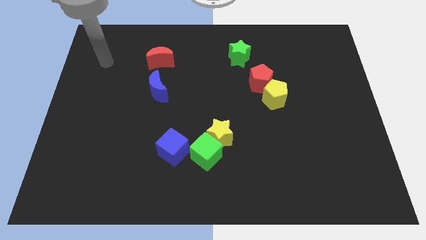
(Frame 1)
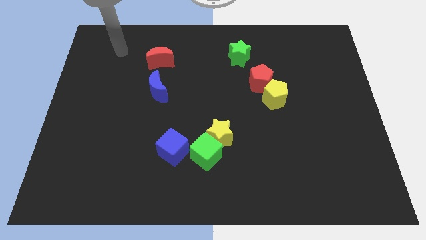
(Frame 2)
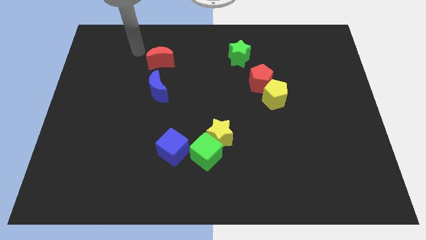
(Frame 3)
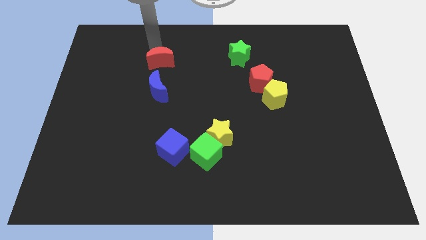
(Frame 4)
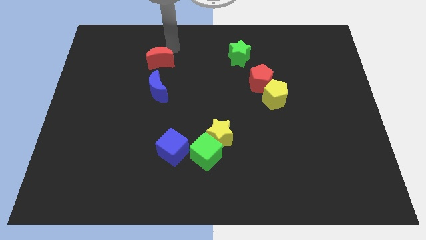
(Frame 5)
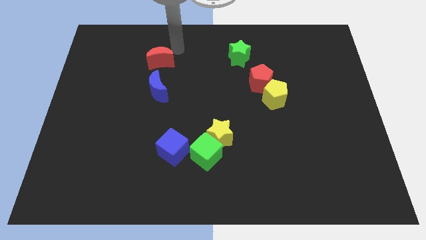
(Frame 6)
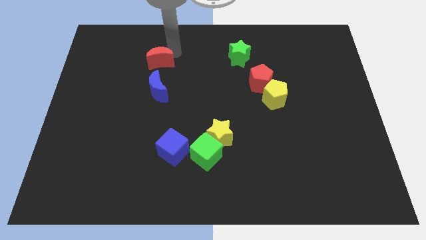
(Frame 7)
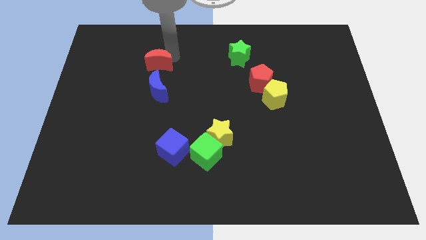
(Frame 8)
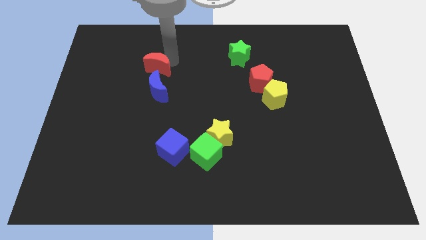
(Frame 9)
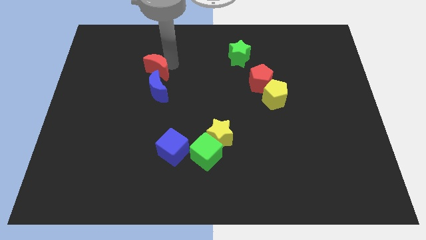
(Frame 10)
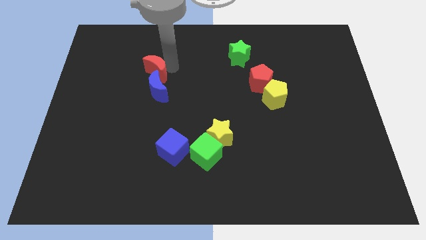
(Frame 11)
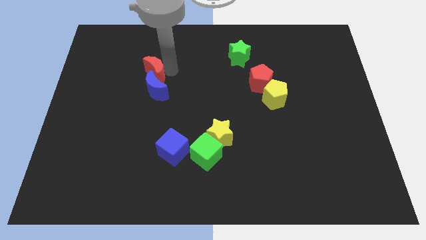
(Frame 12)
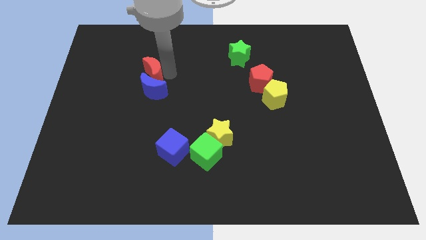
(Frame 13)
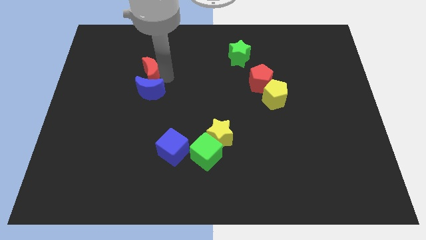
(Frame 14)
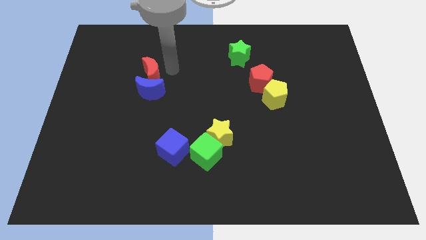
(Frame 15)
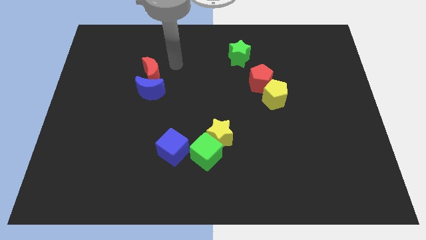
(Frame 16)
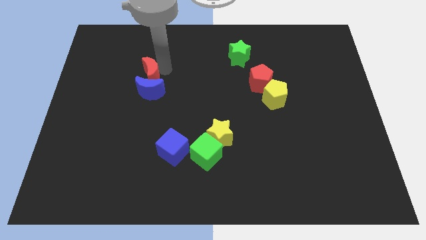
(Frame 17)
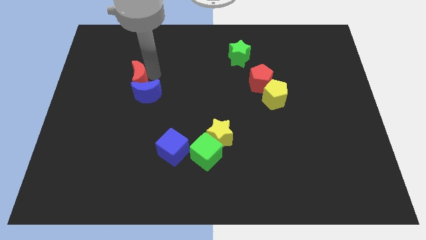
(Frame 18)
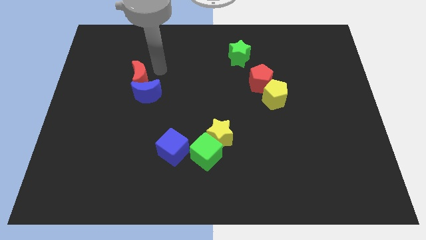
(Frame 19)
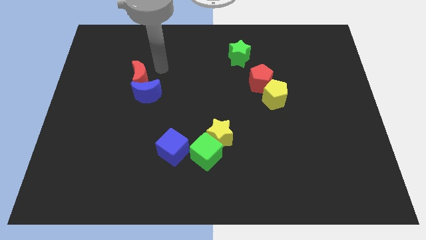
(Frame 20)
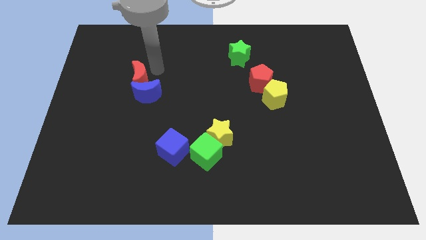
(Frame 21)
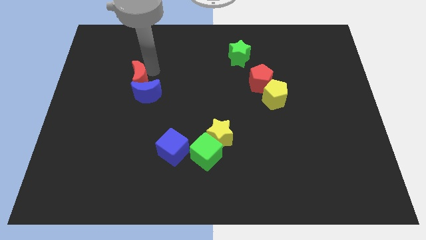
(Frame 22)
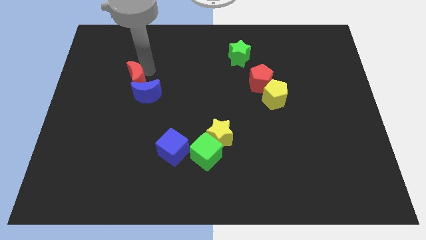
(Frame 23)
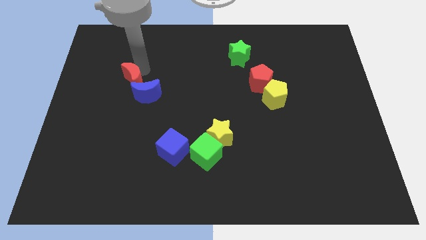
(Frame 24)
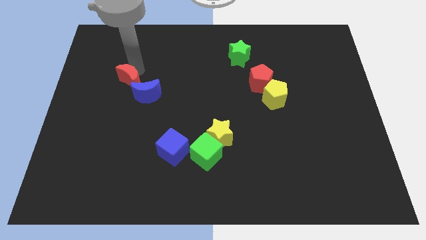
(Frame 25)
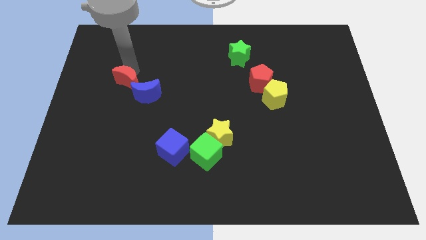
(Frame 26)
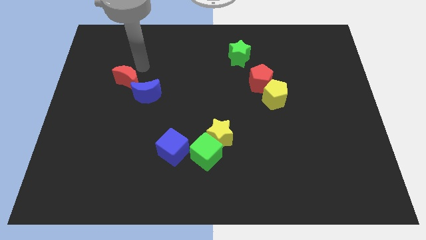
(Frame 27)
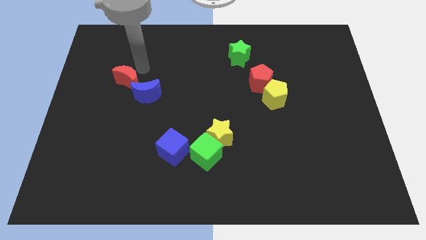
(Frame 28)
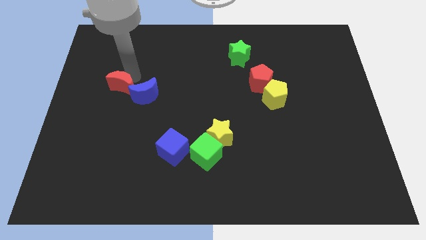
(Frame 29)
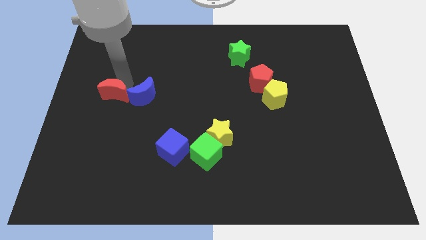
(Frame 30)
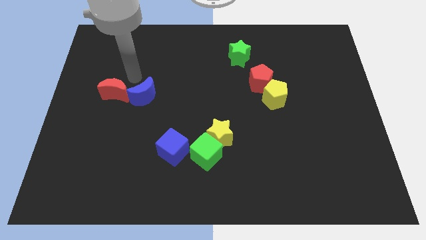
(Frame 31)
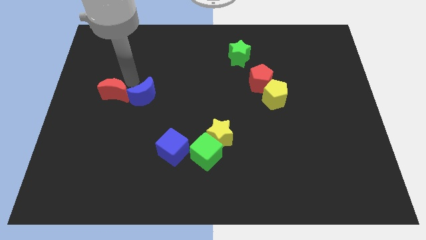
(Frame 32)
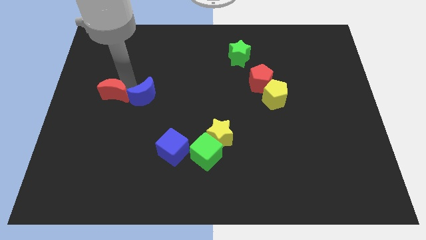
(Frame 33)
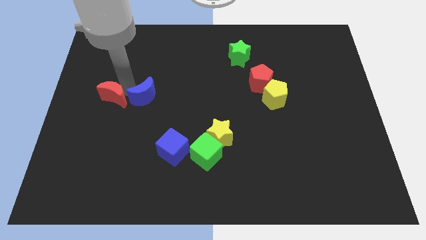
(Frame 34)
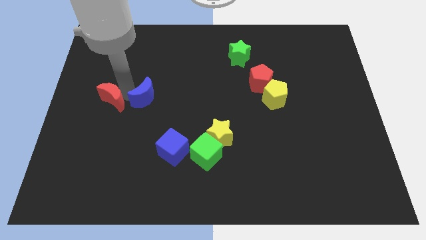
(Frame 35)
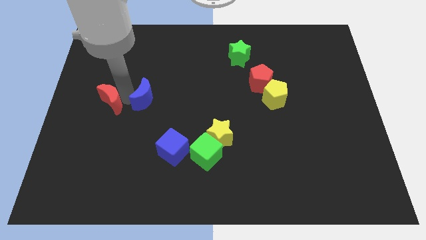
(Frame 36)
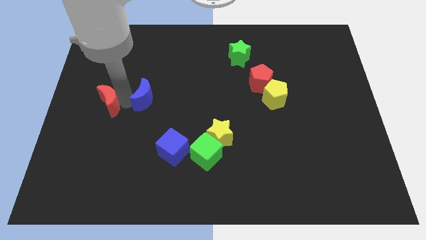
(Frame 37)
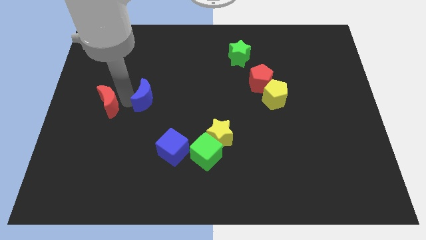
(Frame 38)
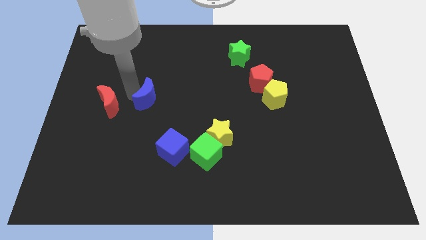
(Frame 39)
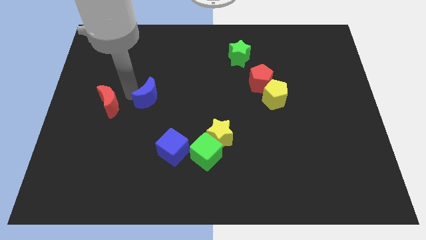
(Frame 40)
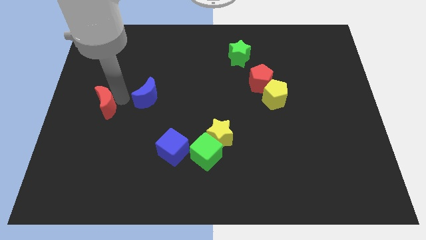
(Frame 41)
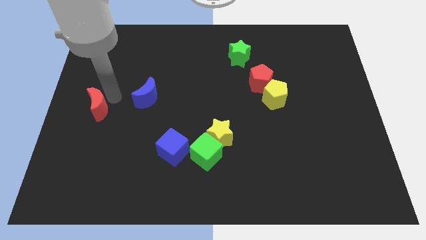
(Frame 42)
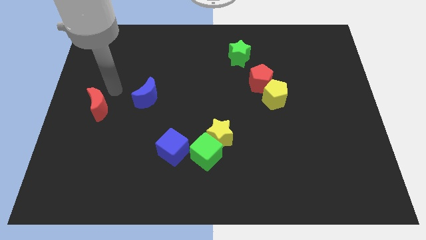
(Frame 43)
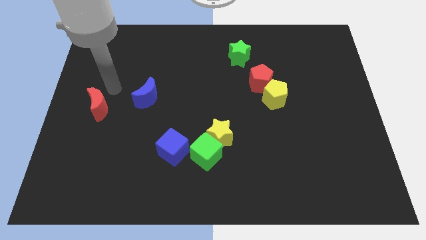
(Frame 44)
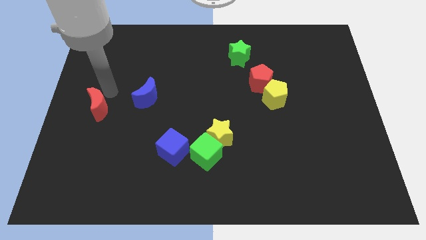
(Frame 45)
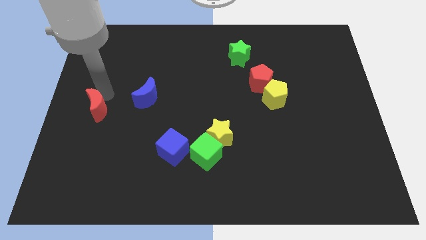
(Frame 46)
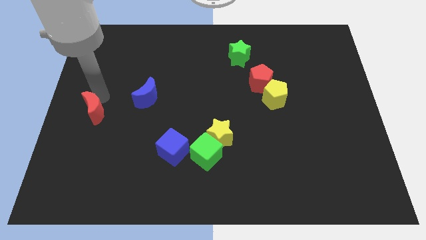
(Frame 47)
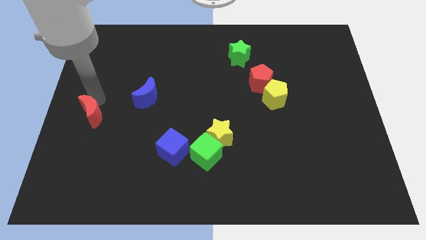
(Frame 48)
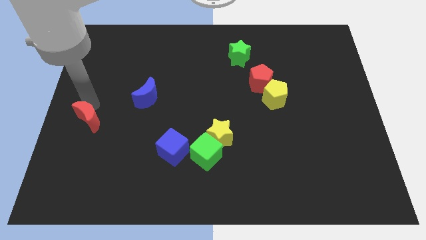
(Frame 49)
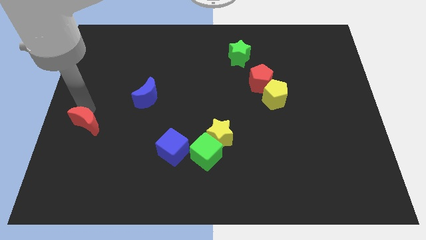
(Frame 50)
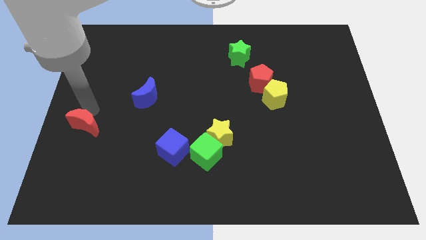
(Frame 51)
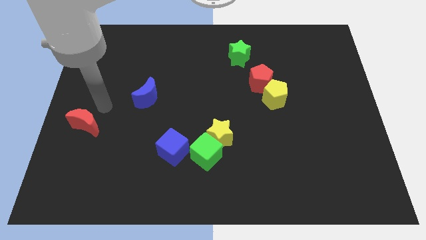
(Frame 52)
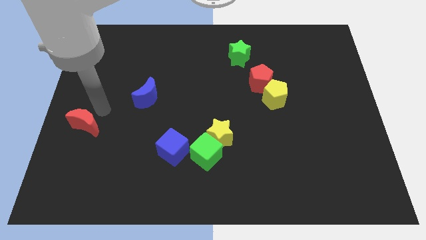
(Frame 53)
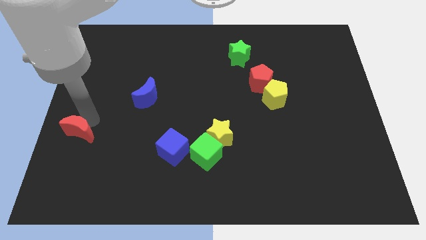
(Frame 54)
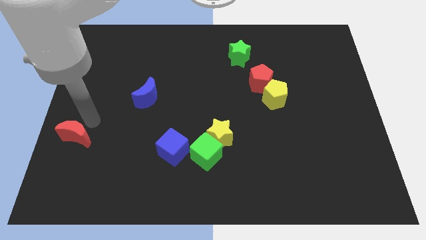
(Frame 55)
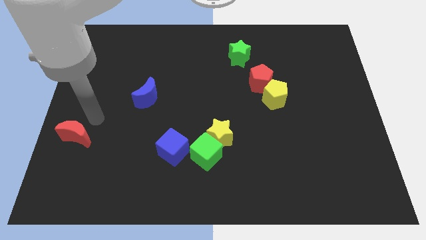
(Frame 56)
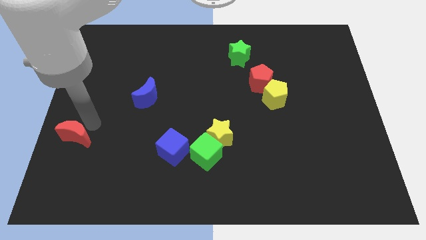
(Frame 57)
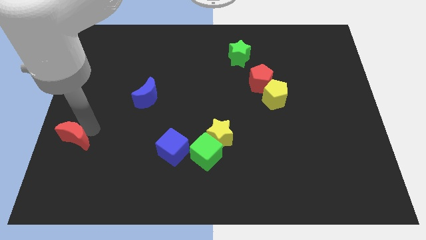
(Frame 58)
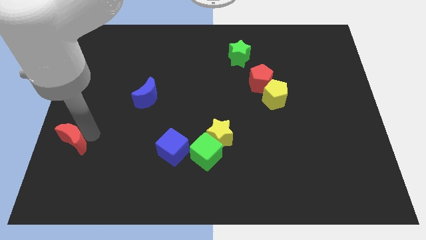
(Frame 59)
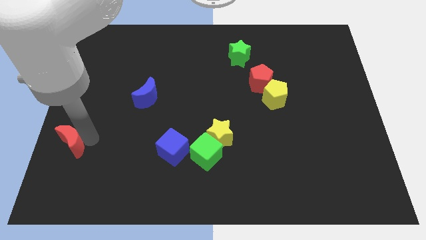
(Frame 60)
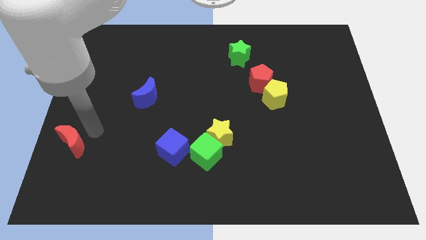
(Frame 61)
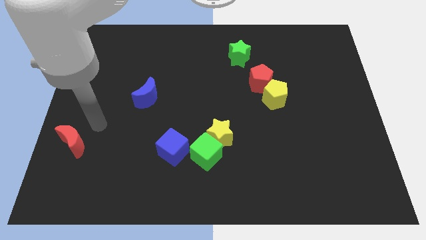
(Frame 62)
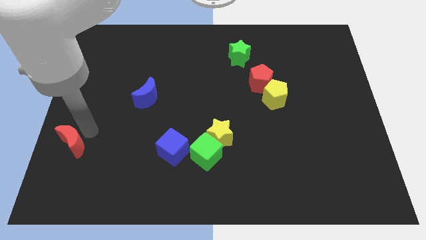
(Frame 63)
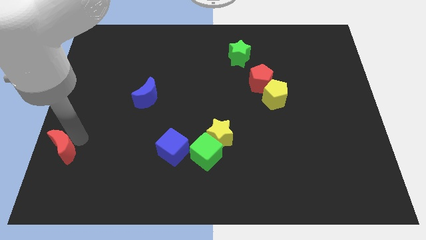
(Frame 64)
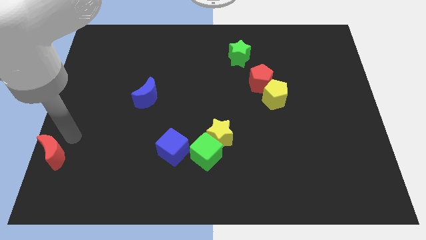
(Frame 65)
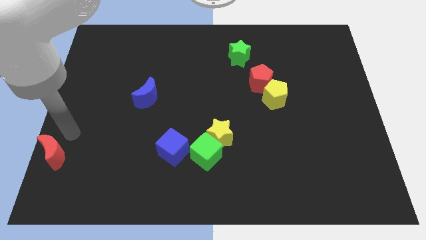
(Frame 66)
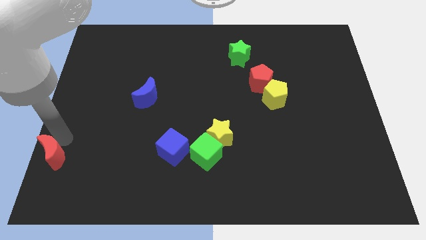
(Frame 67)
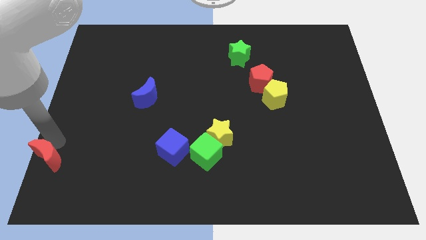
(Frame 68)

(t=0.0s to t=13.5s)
put the red moon to the lower left corner

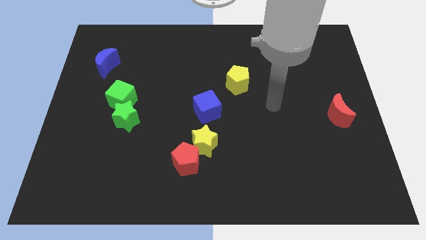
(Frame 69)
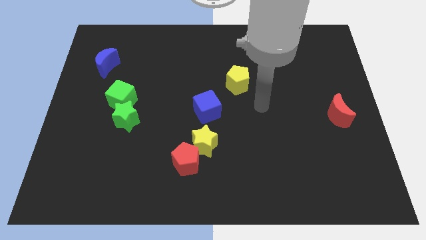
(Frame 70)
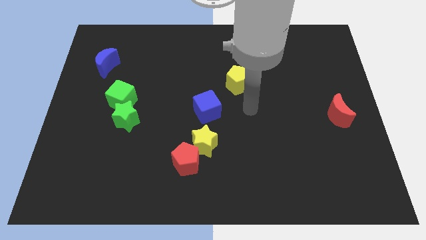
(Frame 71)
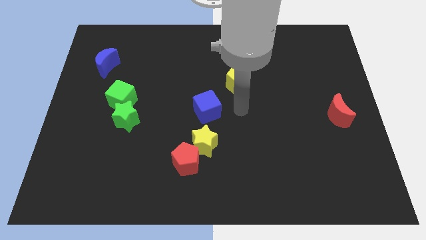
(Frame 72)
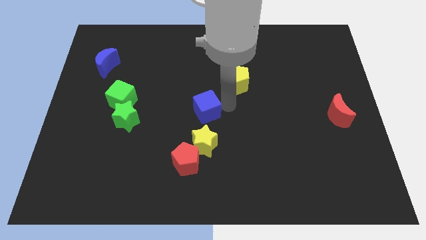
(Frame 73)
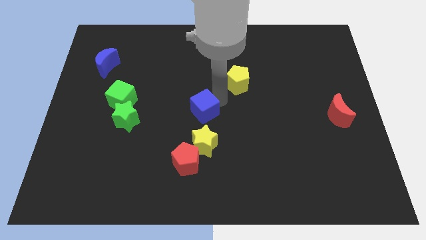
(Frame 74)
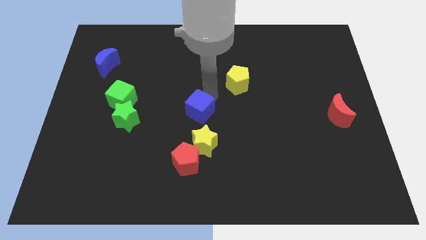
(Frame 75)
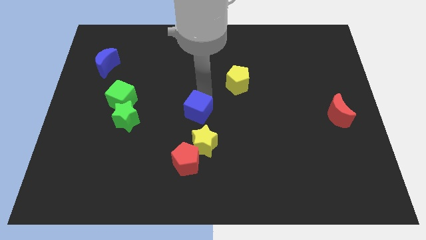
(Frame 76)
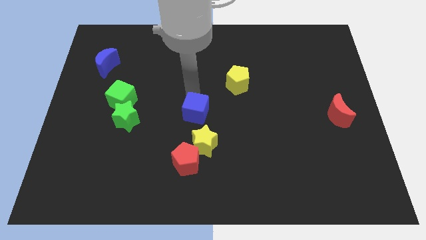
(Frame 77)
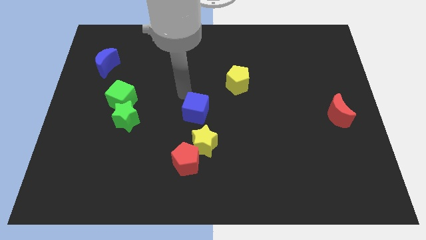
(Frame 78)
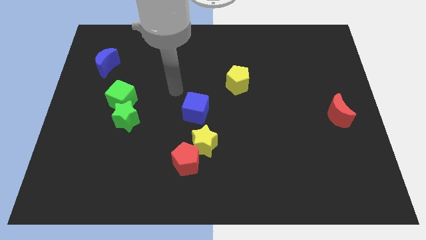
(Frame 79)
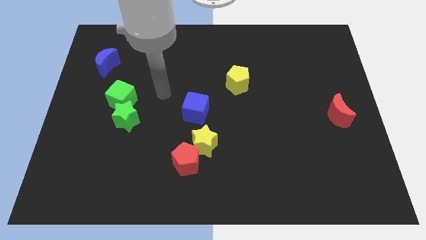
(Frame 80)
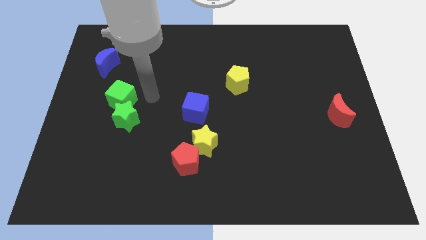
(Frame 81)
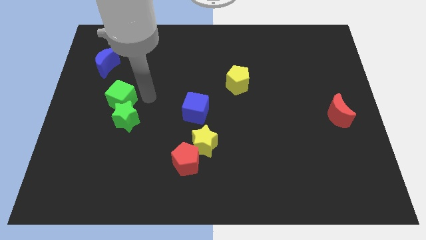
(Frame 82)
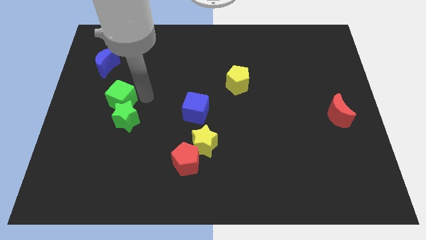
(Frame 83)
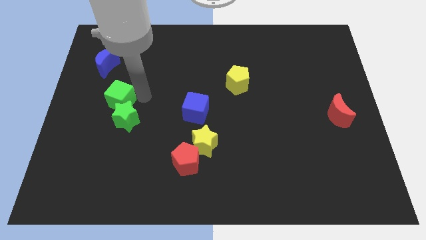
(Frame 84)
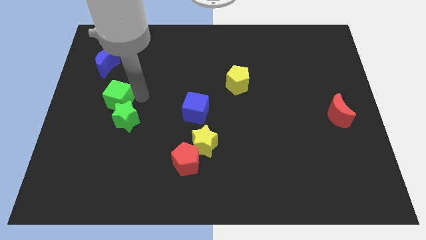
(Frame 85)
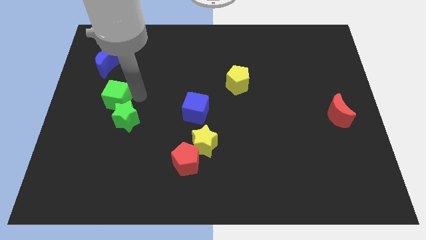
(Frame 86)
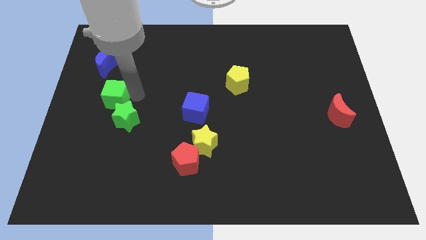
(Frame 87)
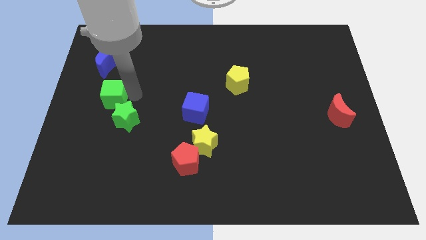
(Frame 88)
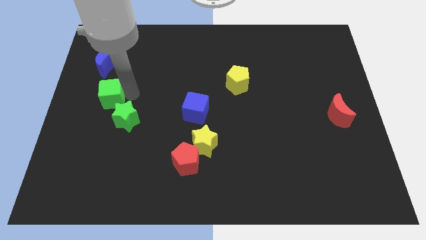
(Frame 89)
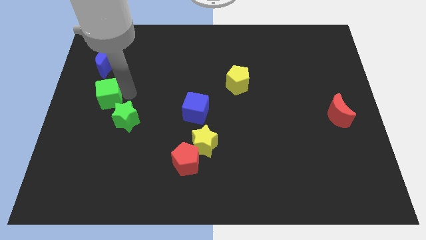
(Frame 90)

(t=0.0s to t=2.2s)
push the green cube to the center left
